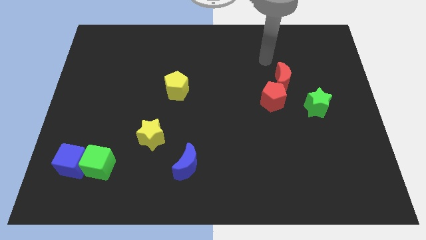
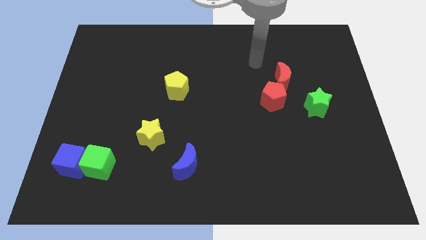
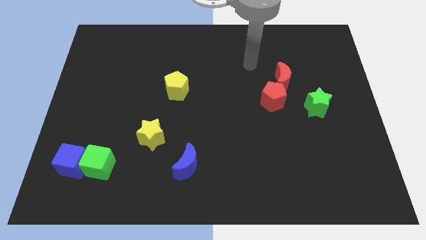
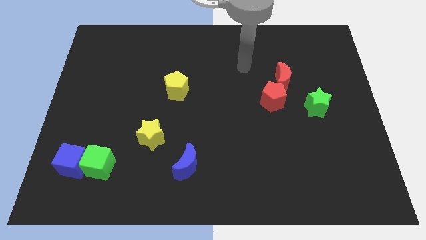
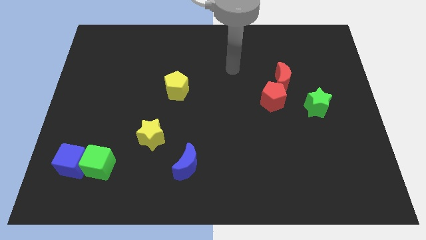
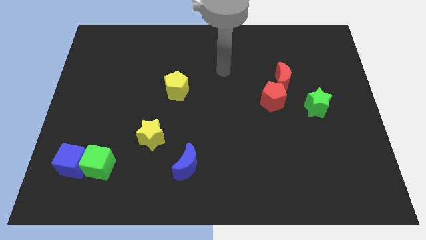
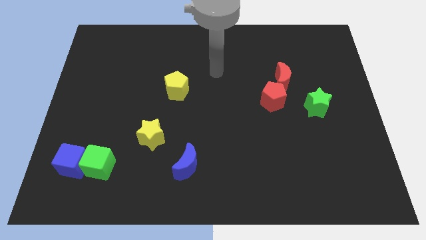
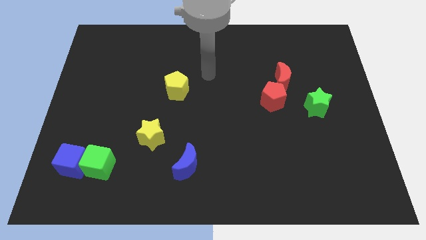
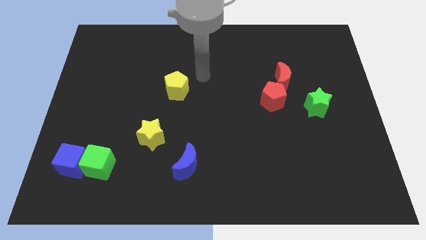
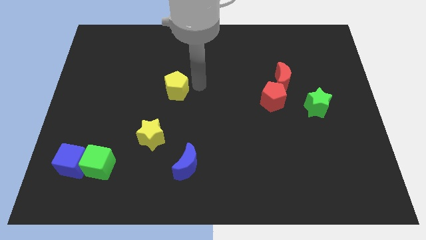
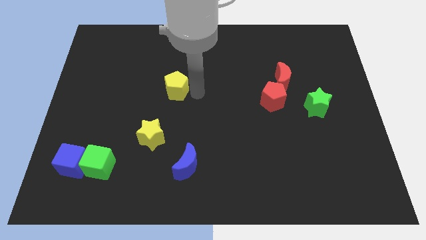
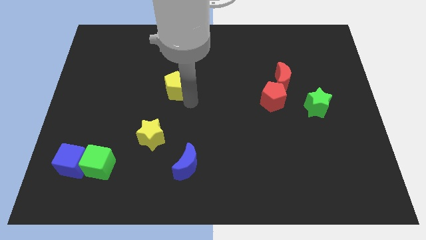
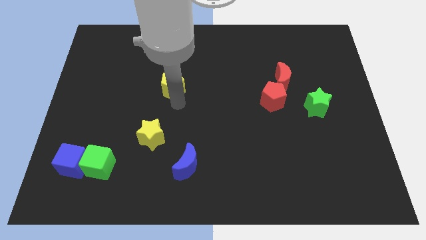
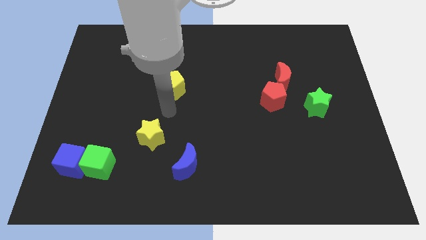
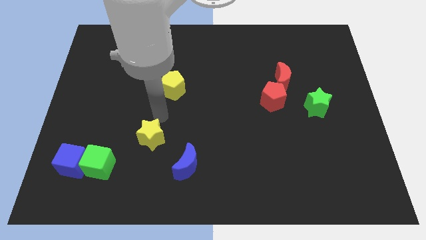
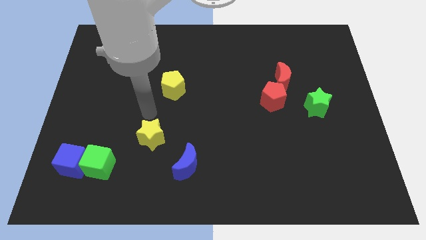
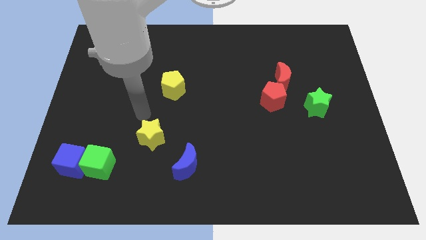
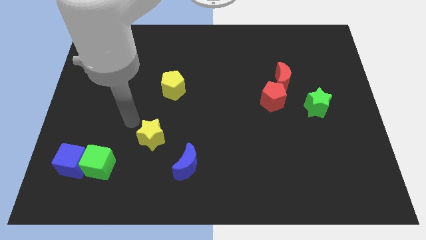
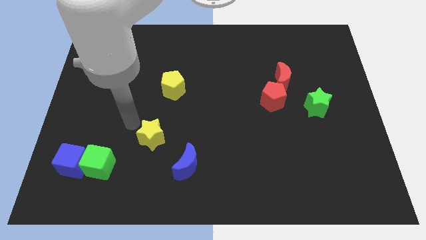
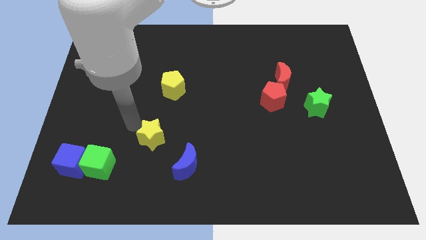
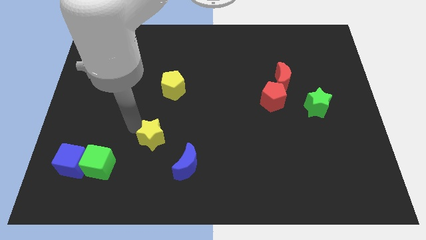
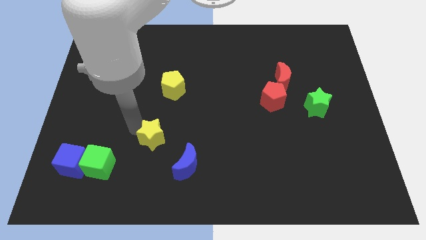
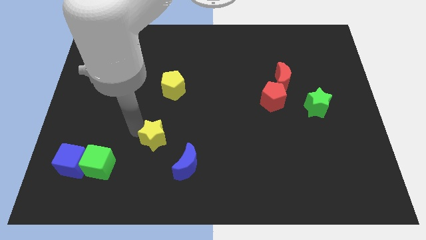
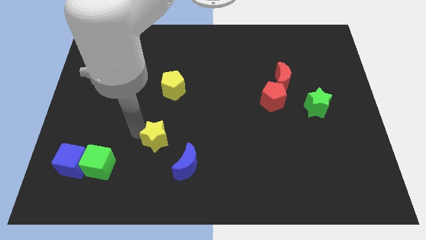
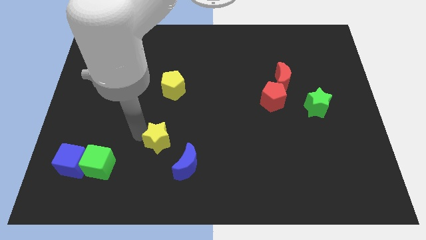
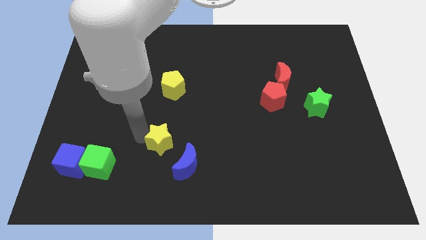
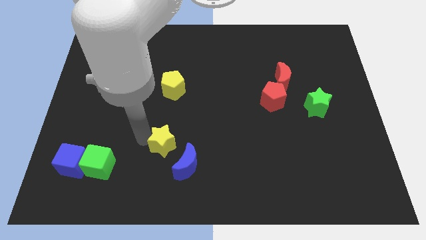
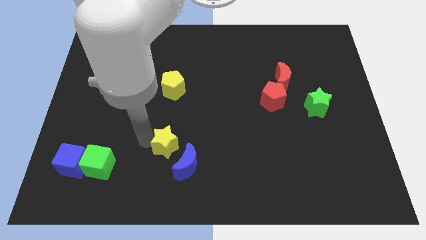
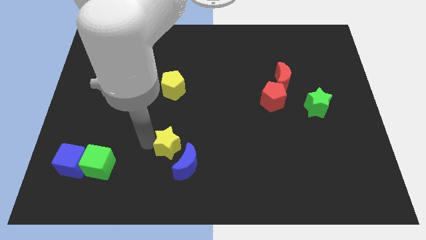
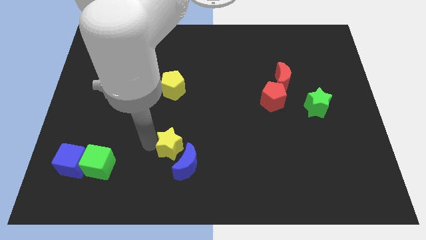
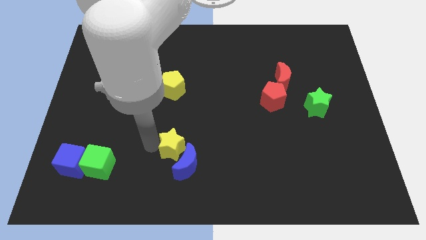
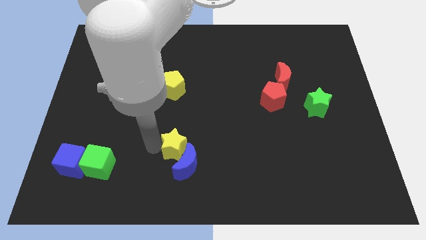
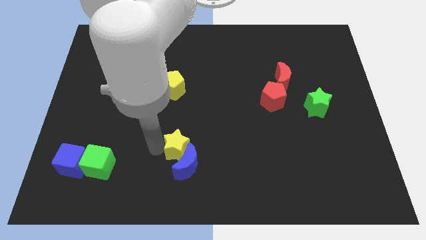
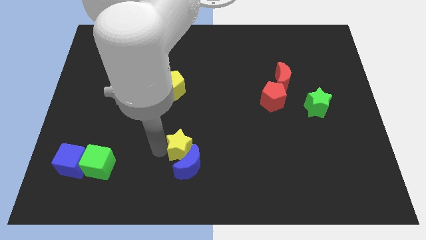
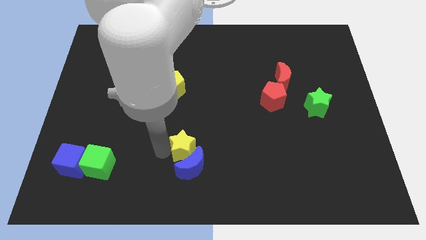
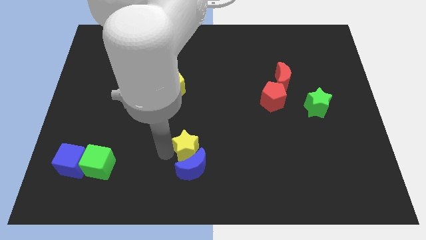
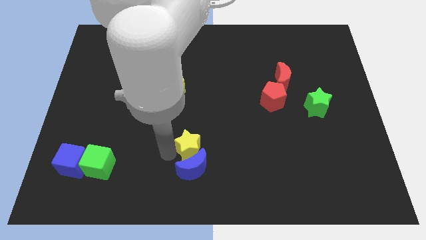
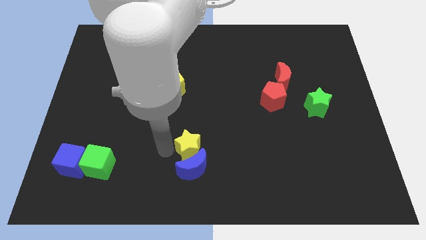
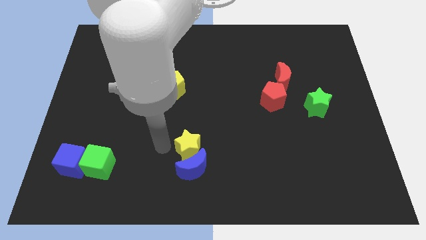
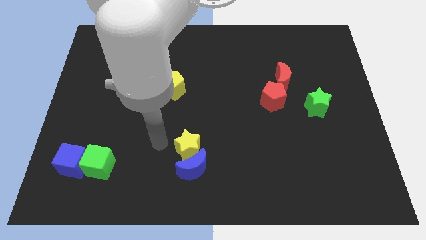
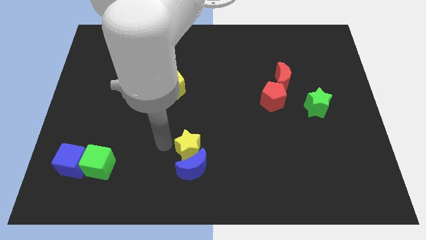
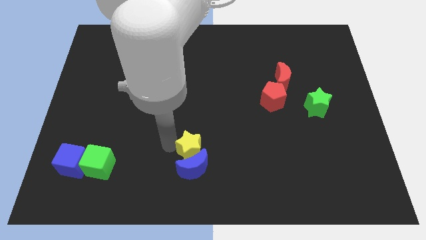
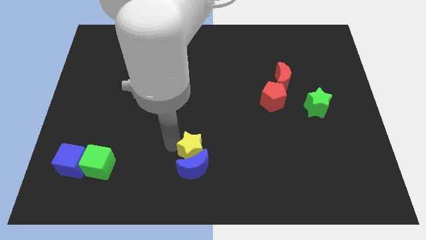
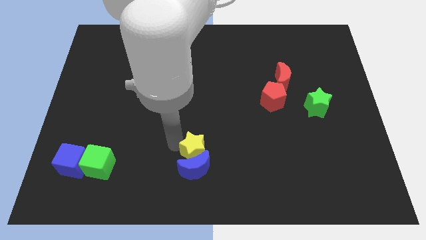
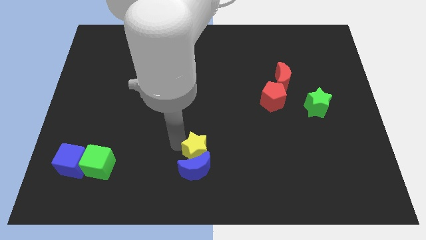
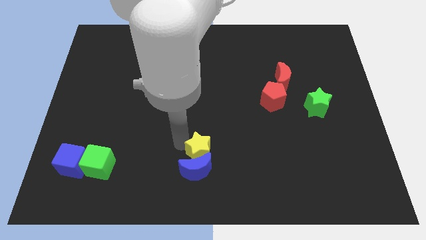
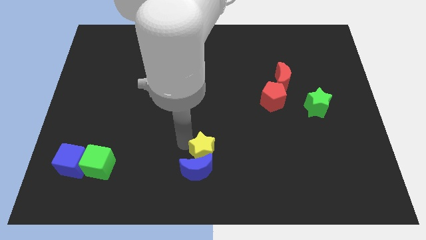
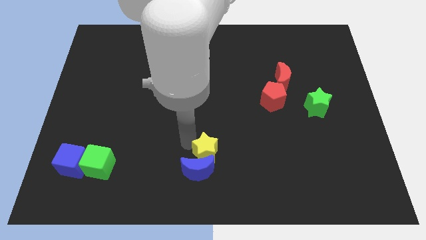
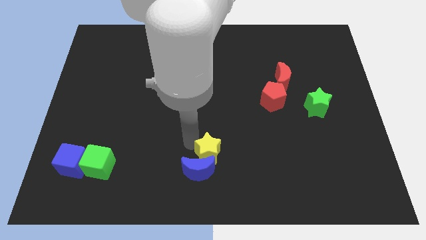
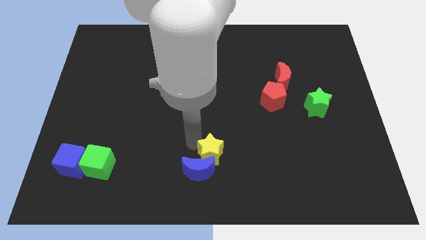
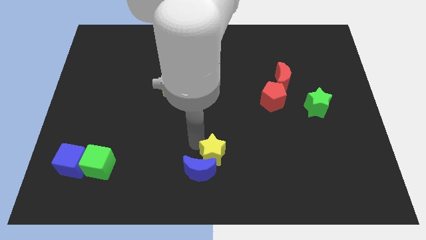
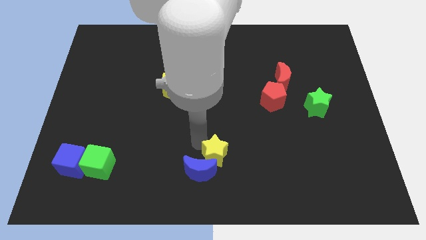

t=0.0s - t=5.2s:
slide the yellow star to the right of the blue moon
